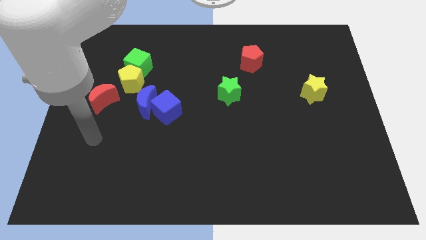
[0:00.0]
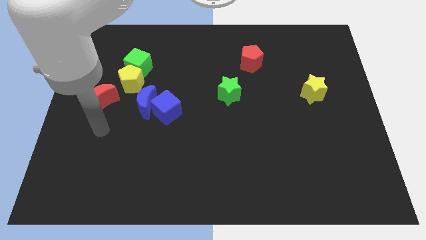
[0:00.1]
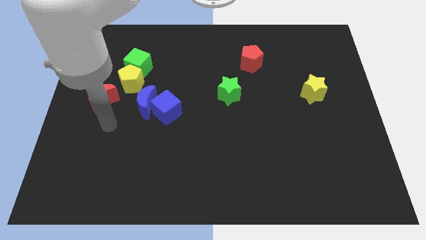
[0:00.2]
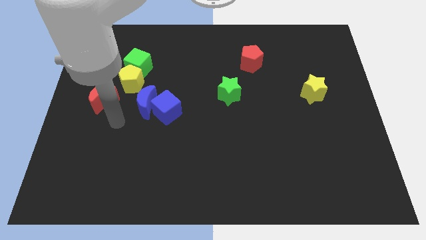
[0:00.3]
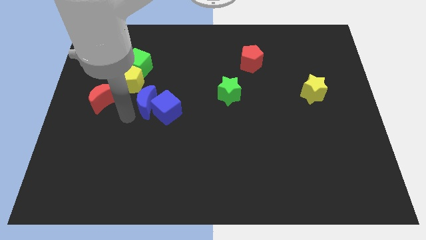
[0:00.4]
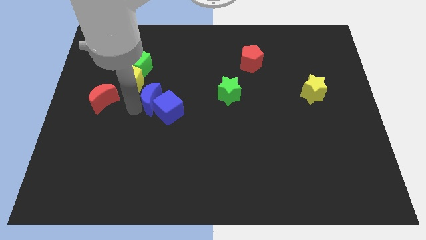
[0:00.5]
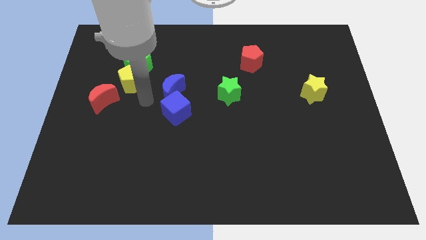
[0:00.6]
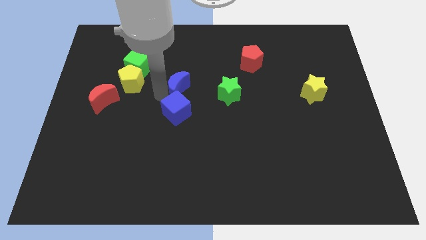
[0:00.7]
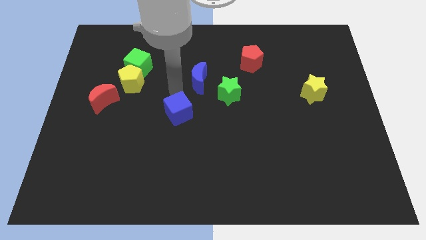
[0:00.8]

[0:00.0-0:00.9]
move the blue cube away from the blue moon

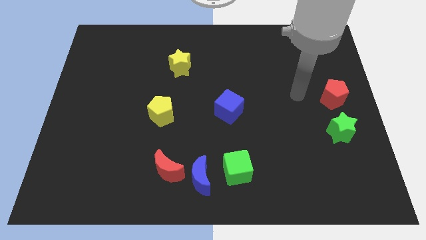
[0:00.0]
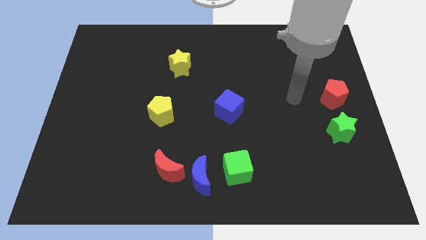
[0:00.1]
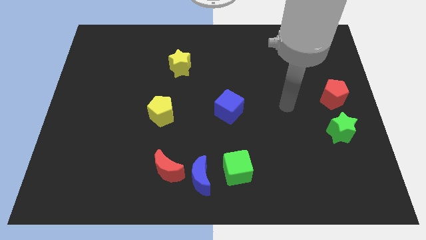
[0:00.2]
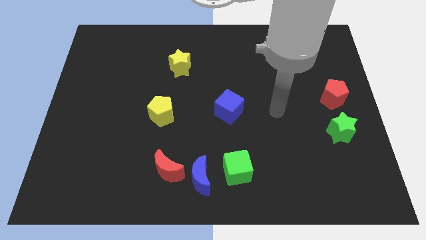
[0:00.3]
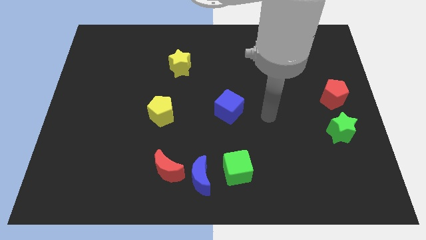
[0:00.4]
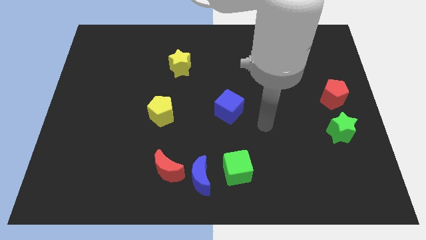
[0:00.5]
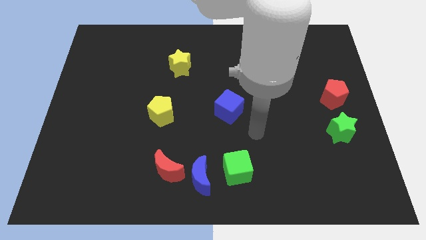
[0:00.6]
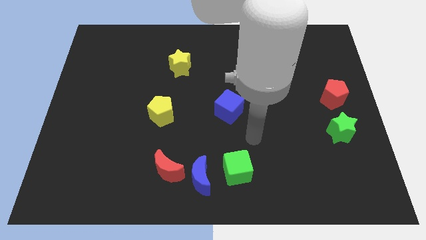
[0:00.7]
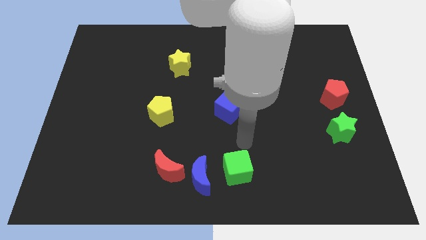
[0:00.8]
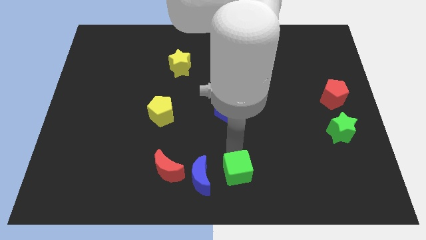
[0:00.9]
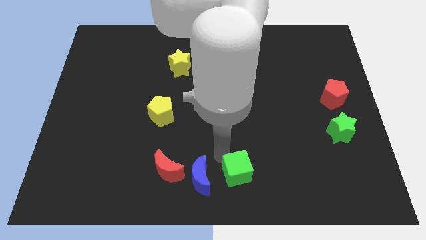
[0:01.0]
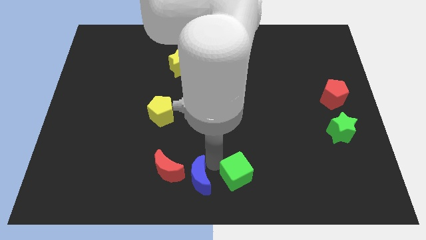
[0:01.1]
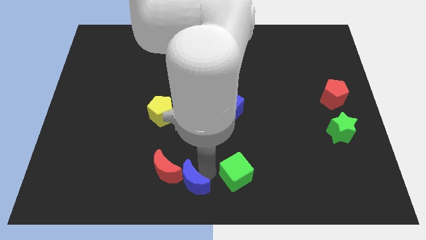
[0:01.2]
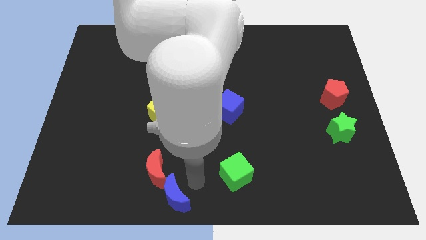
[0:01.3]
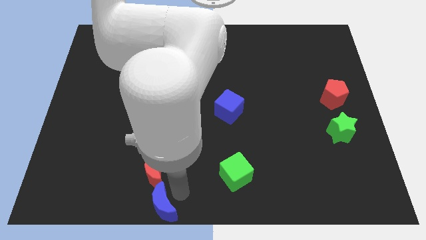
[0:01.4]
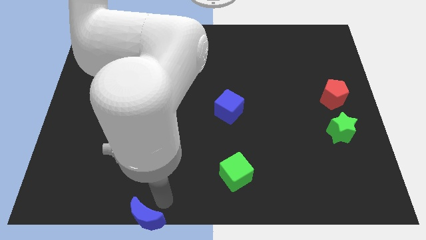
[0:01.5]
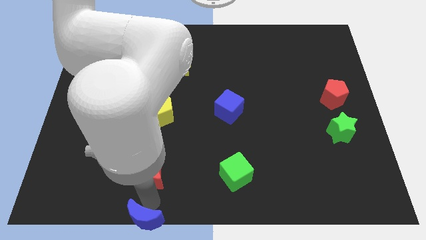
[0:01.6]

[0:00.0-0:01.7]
separate the red moon from the blue moon

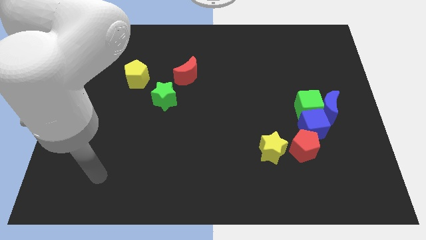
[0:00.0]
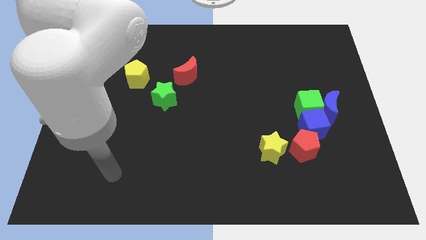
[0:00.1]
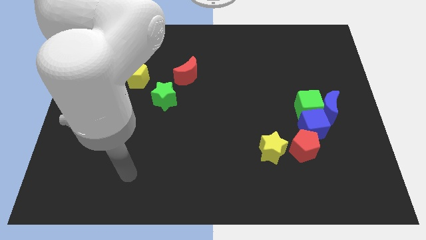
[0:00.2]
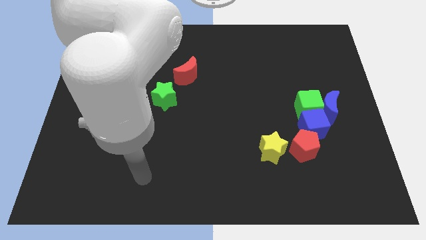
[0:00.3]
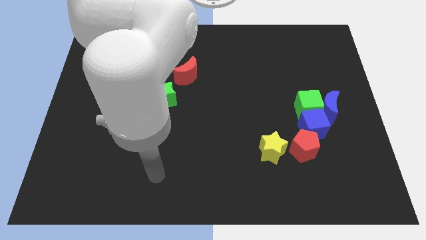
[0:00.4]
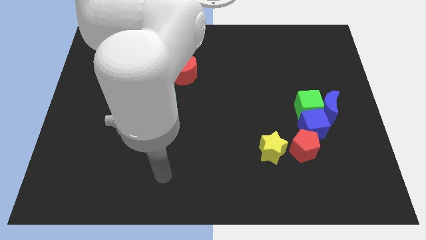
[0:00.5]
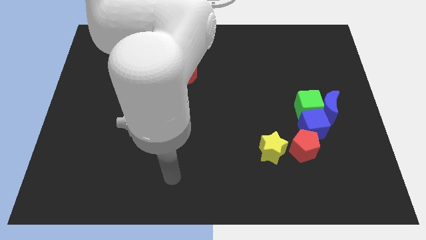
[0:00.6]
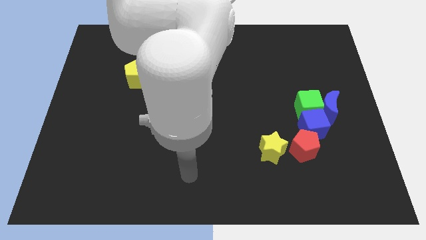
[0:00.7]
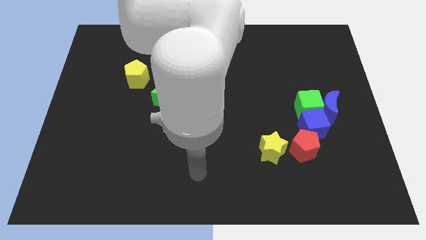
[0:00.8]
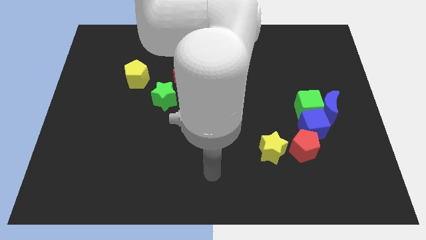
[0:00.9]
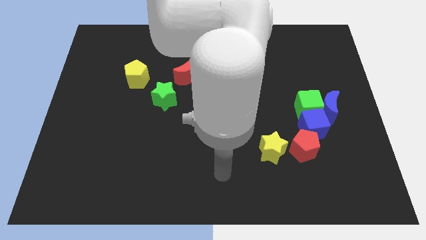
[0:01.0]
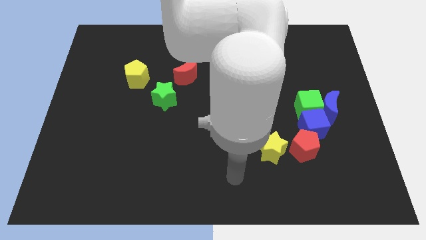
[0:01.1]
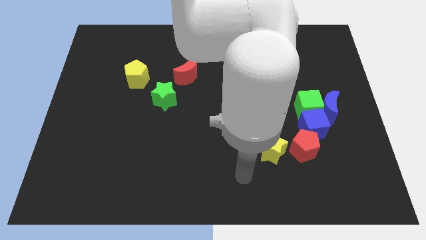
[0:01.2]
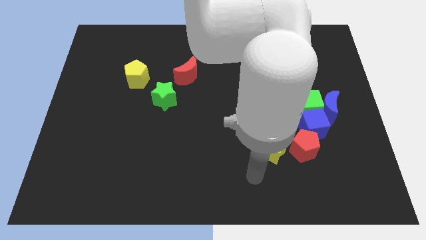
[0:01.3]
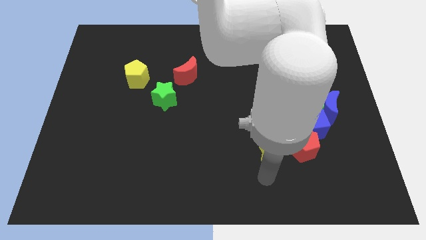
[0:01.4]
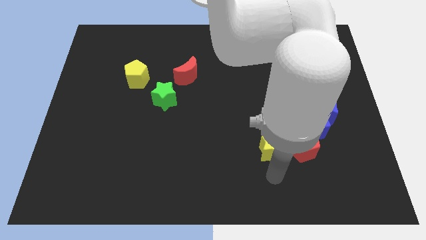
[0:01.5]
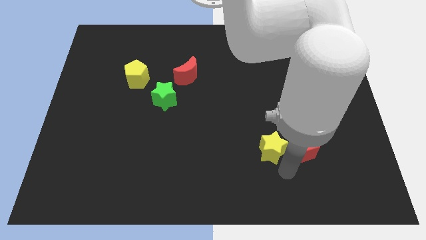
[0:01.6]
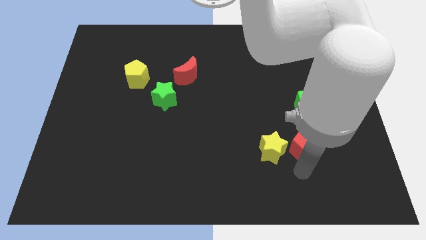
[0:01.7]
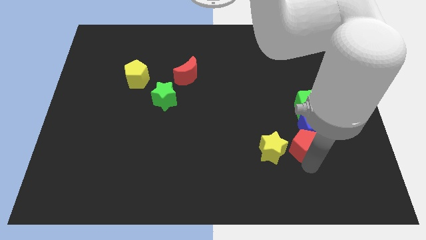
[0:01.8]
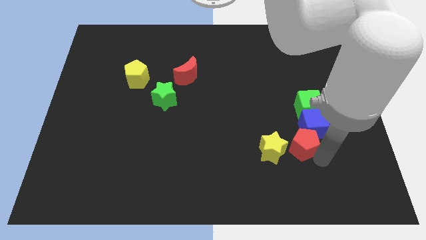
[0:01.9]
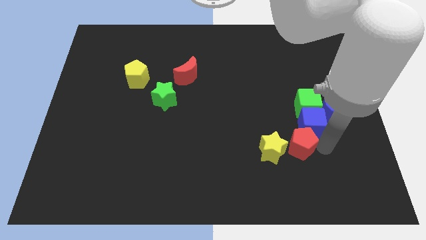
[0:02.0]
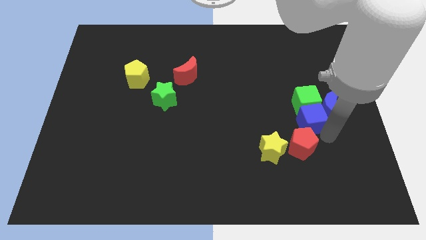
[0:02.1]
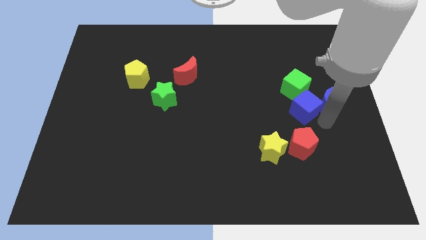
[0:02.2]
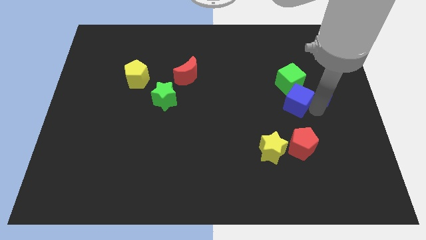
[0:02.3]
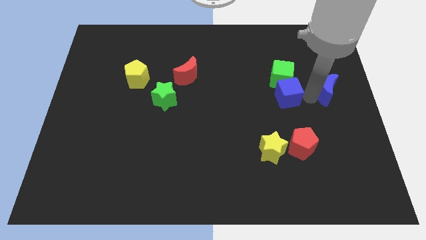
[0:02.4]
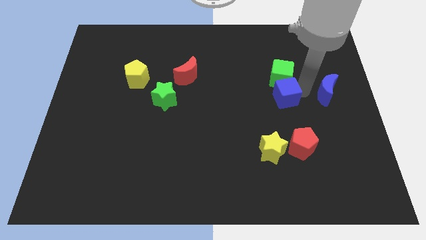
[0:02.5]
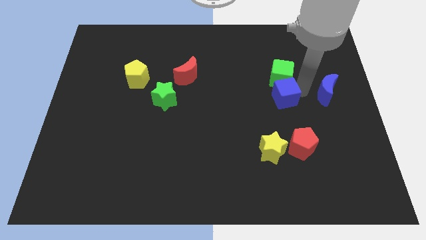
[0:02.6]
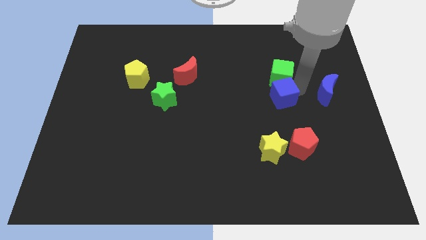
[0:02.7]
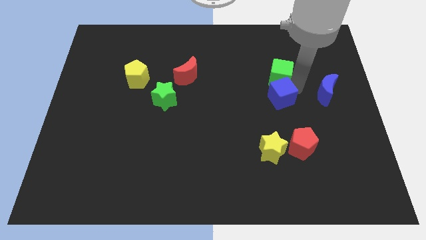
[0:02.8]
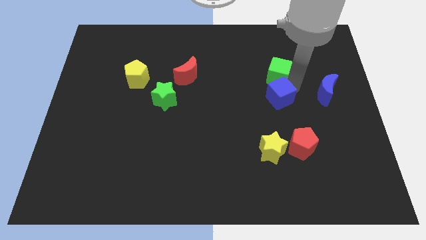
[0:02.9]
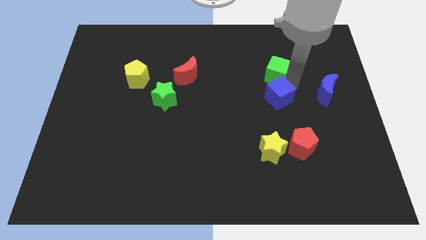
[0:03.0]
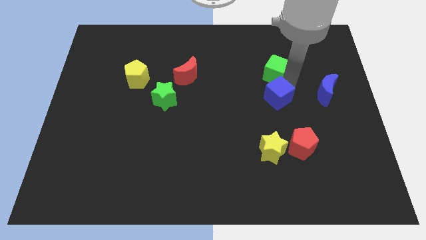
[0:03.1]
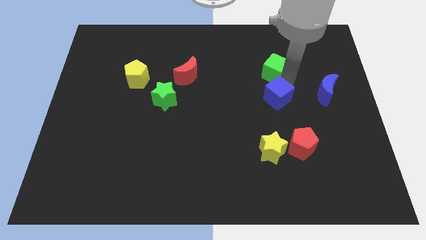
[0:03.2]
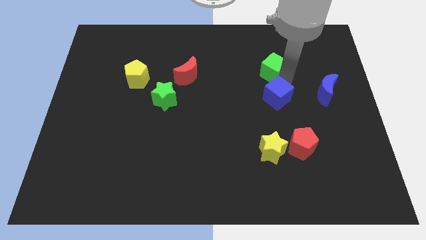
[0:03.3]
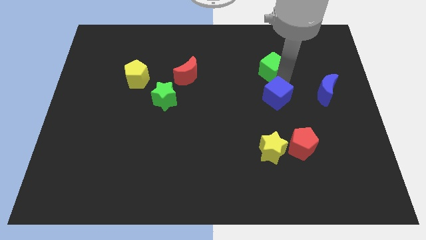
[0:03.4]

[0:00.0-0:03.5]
move the green cube away from the blue moon and blue cube

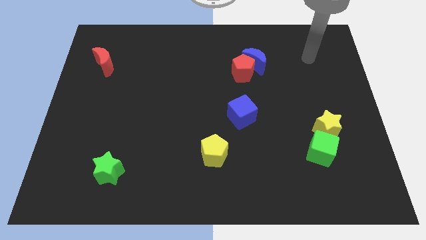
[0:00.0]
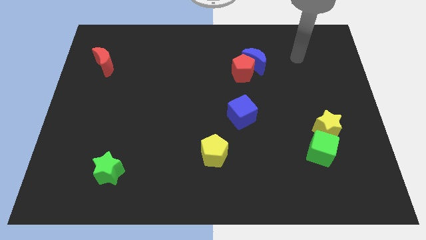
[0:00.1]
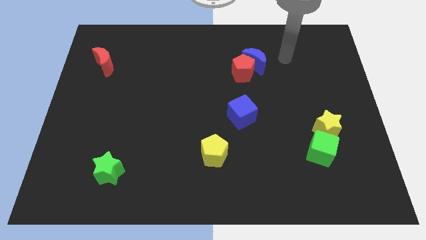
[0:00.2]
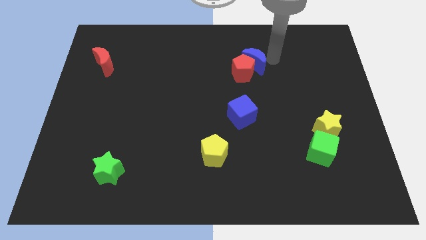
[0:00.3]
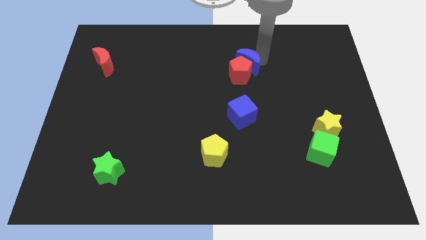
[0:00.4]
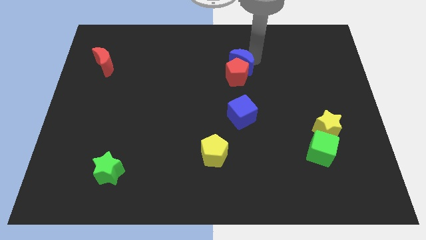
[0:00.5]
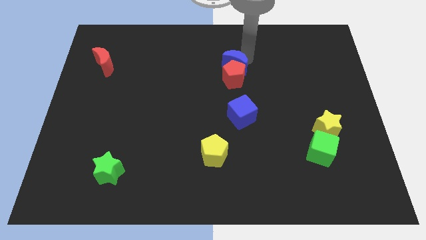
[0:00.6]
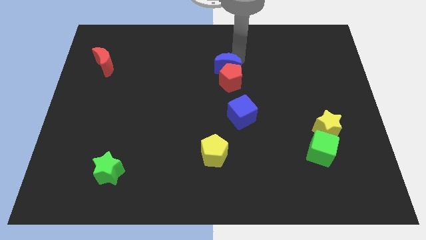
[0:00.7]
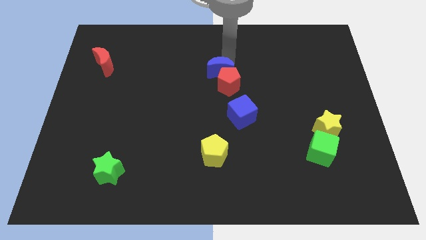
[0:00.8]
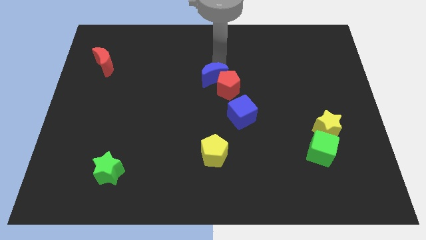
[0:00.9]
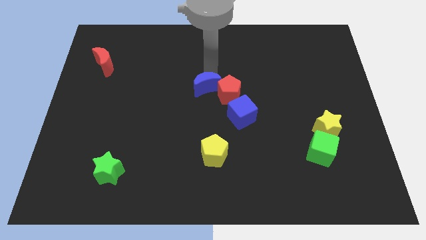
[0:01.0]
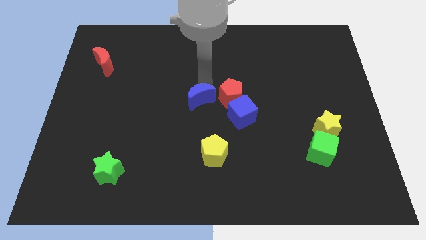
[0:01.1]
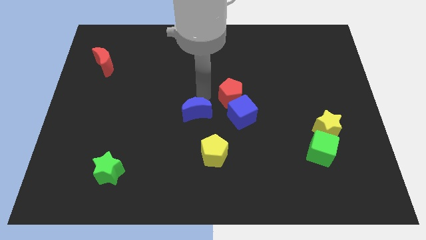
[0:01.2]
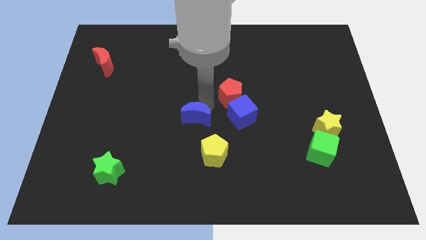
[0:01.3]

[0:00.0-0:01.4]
pull the red pentagon apart from the blue moon

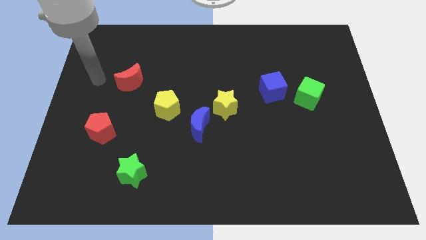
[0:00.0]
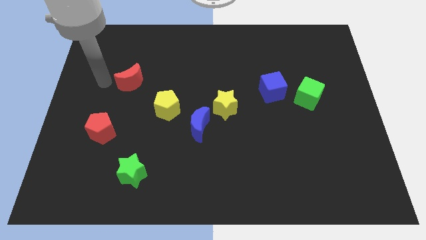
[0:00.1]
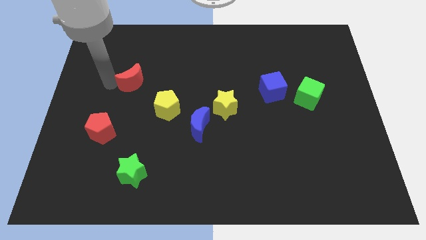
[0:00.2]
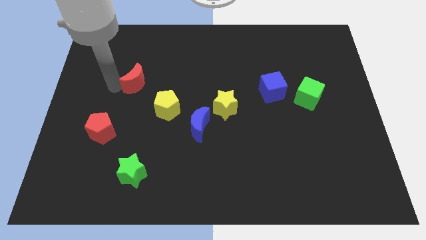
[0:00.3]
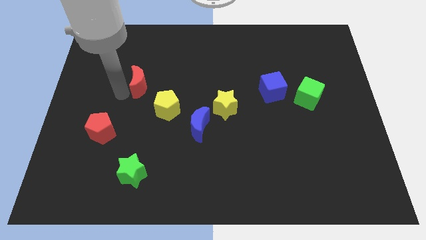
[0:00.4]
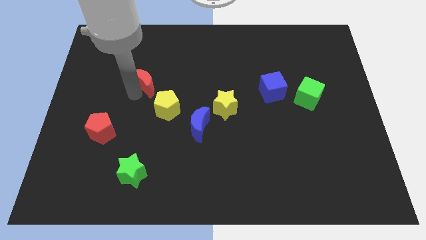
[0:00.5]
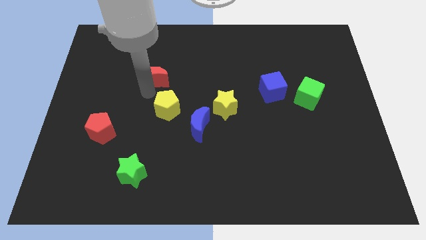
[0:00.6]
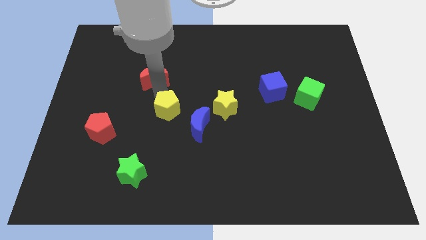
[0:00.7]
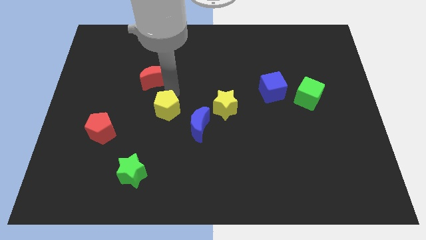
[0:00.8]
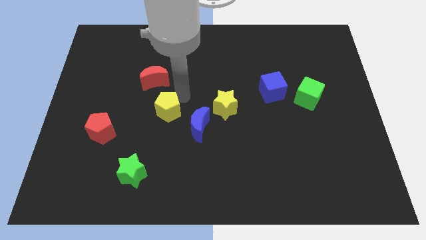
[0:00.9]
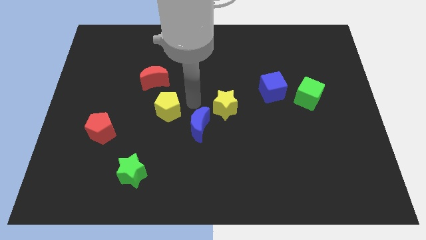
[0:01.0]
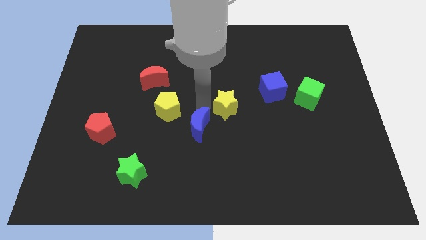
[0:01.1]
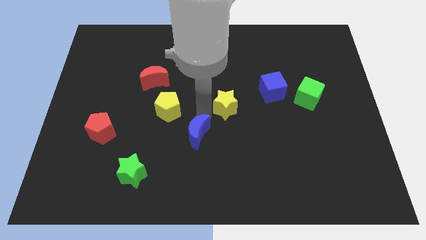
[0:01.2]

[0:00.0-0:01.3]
pull the yellow star apart from the blue moon

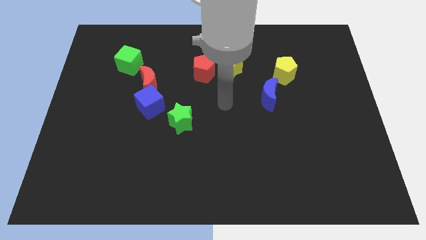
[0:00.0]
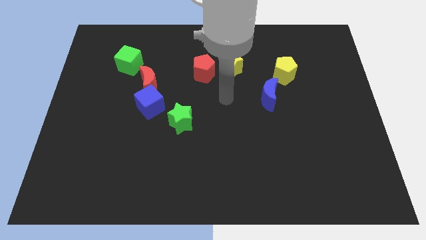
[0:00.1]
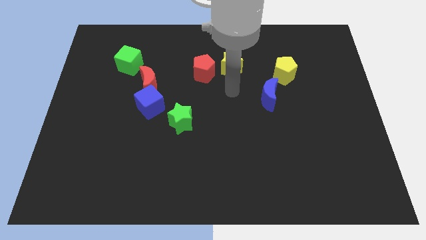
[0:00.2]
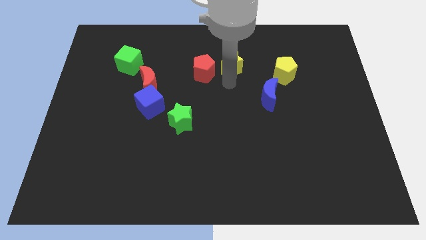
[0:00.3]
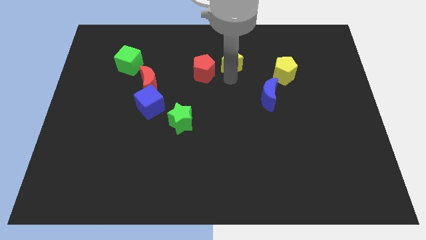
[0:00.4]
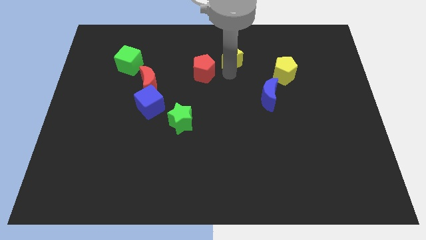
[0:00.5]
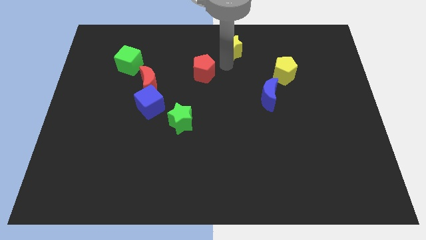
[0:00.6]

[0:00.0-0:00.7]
move the red pentagon away from the yellow star
